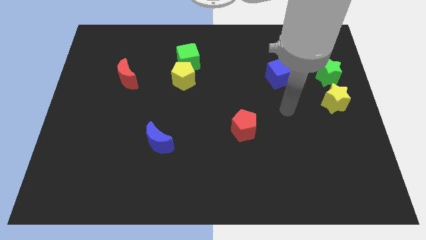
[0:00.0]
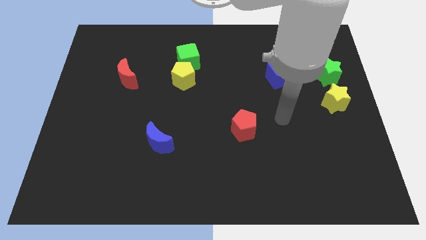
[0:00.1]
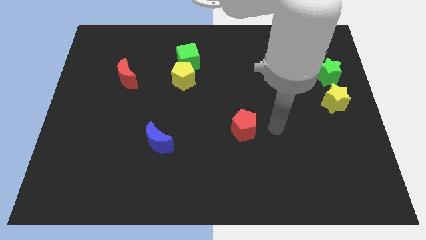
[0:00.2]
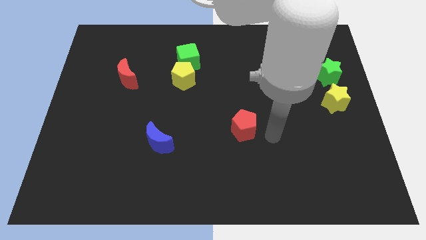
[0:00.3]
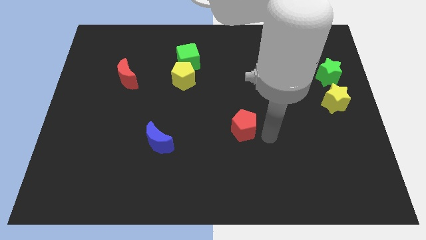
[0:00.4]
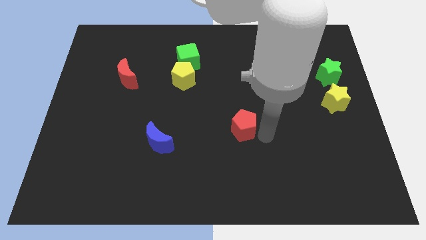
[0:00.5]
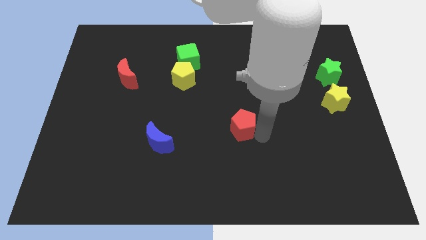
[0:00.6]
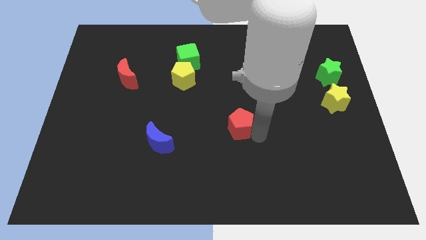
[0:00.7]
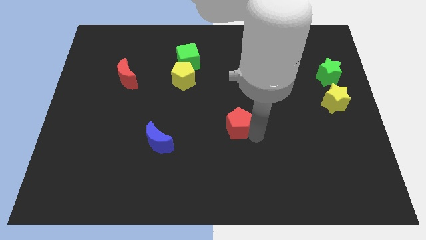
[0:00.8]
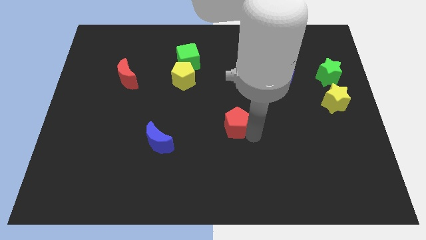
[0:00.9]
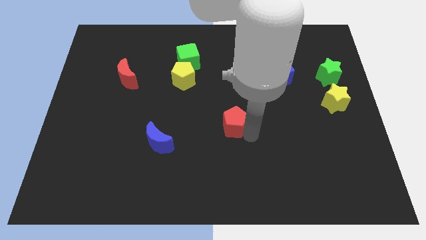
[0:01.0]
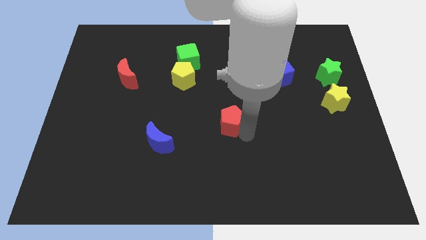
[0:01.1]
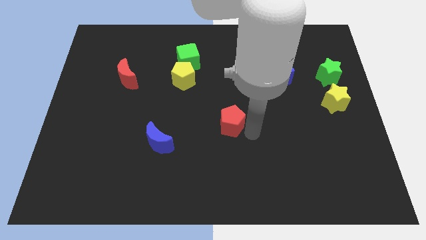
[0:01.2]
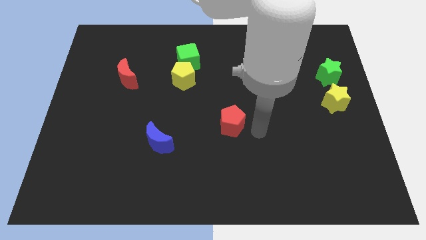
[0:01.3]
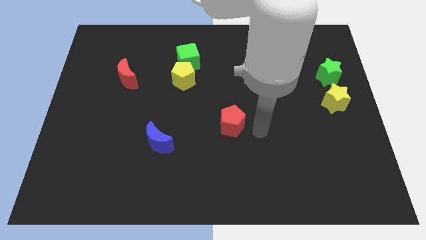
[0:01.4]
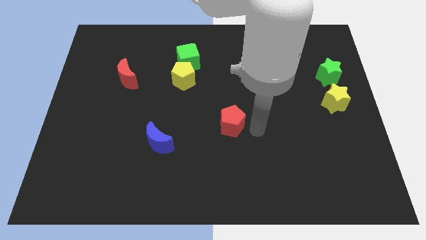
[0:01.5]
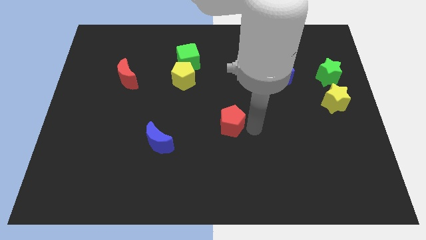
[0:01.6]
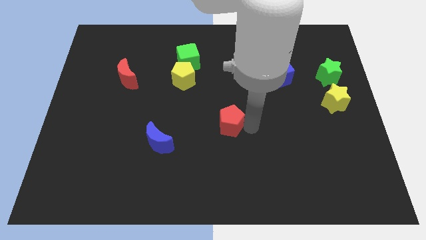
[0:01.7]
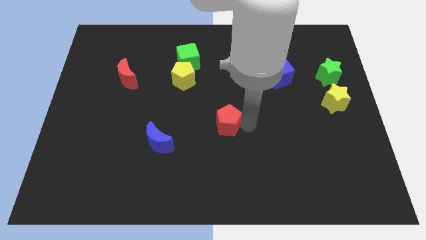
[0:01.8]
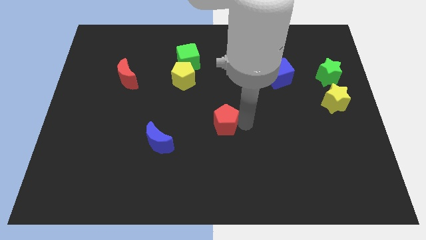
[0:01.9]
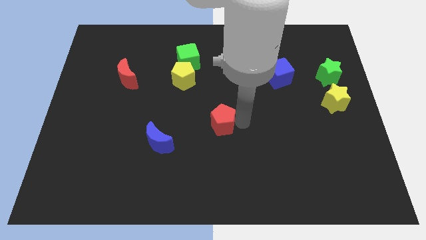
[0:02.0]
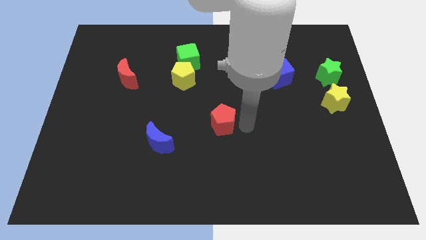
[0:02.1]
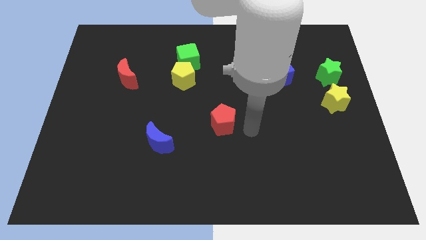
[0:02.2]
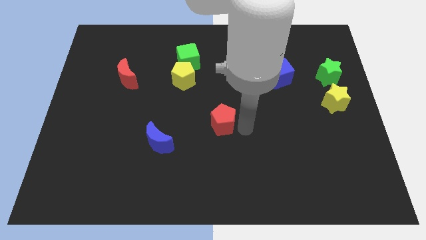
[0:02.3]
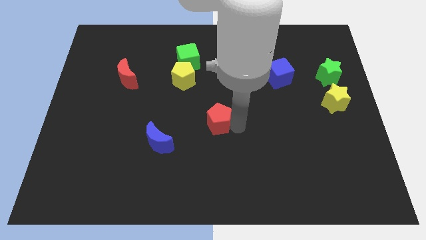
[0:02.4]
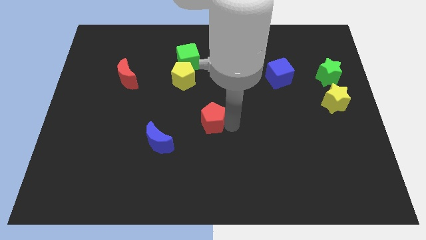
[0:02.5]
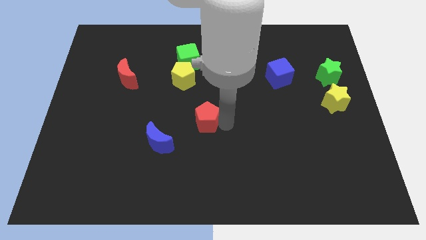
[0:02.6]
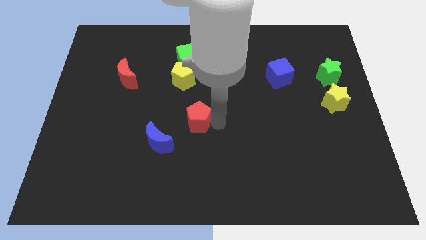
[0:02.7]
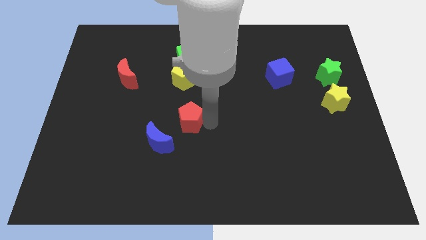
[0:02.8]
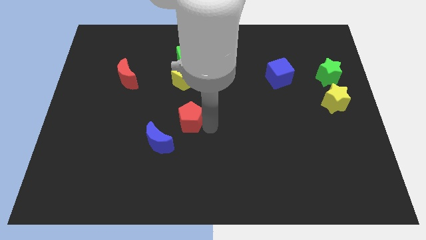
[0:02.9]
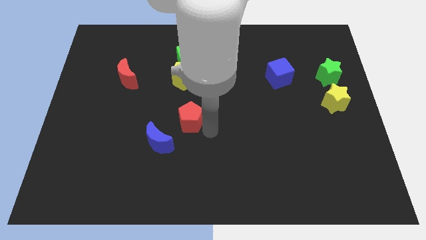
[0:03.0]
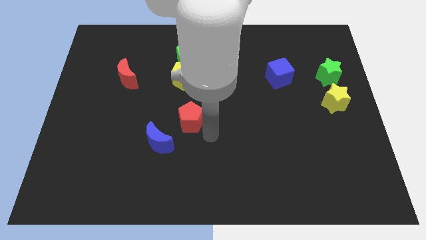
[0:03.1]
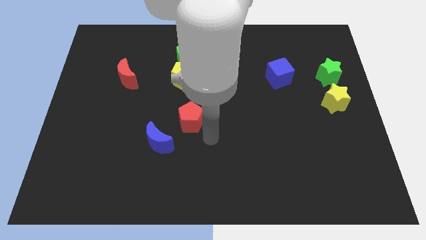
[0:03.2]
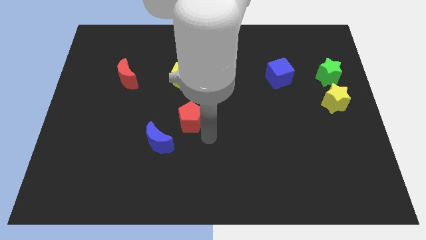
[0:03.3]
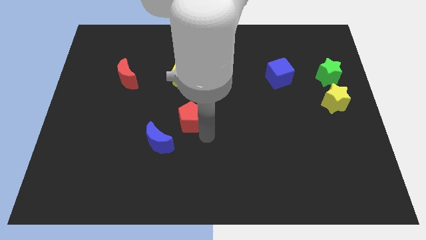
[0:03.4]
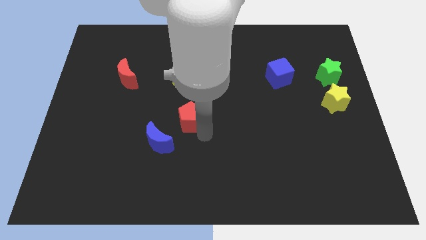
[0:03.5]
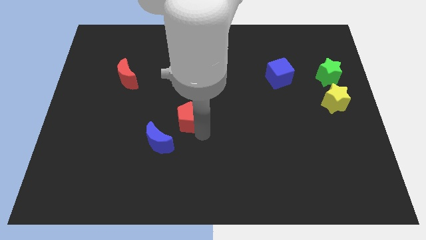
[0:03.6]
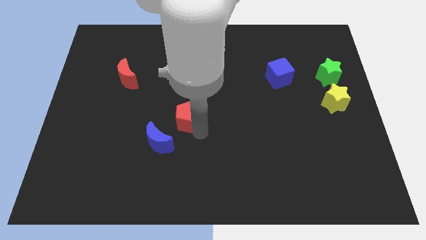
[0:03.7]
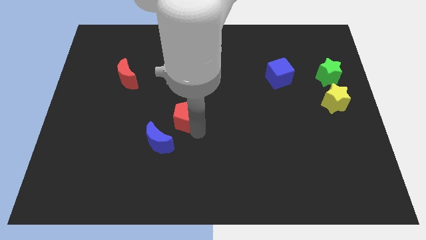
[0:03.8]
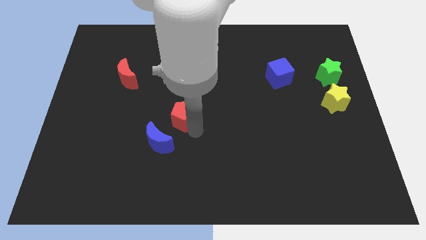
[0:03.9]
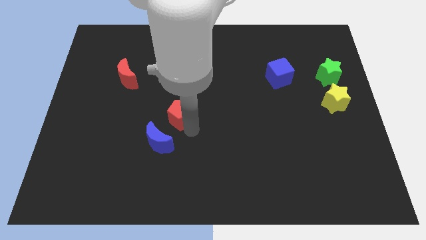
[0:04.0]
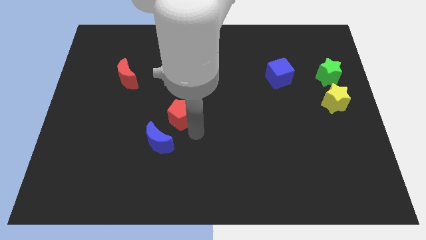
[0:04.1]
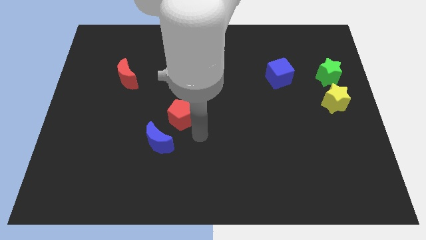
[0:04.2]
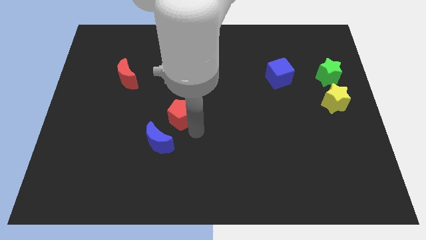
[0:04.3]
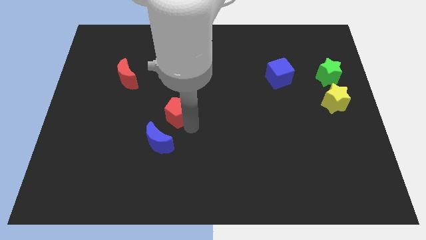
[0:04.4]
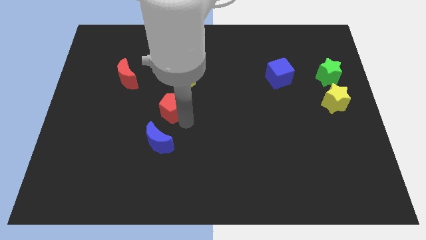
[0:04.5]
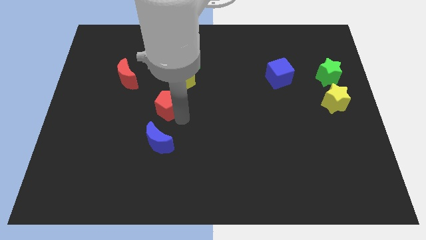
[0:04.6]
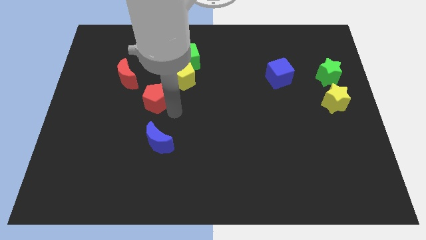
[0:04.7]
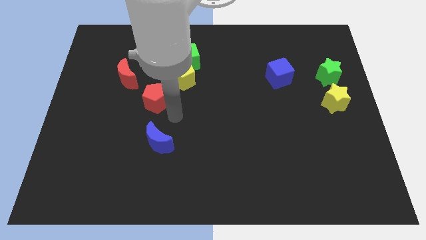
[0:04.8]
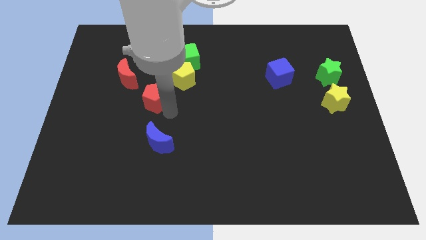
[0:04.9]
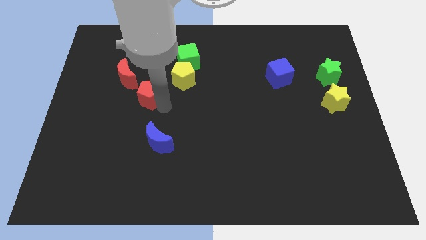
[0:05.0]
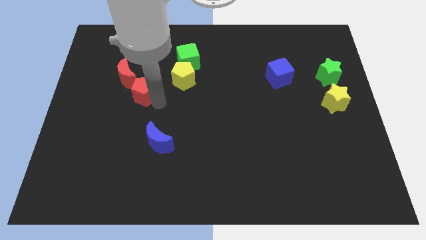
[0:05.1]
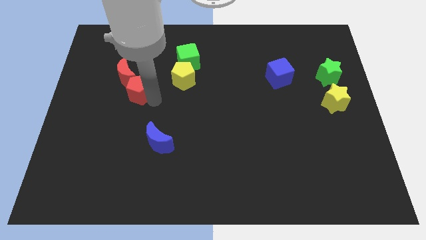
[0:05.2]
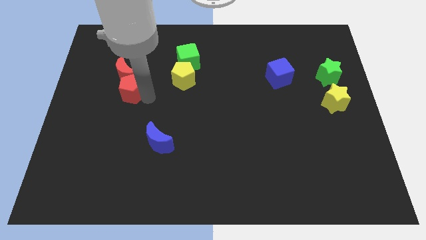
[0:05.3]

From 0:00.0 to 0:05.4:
slide the red pentagon towards the red moon

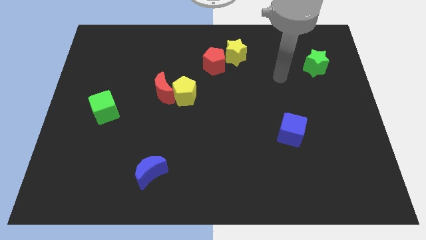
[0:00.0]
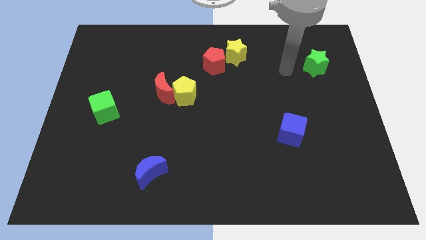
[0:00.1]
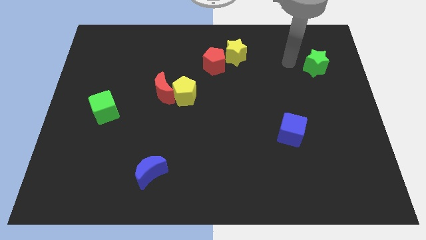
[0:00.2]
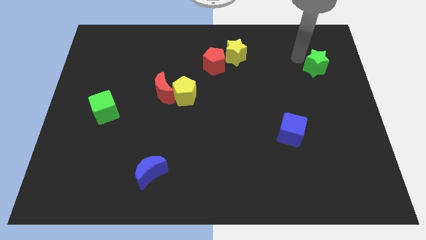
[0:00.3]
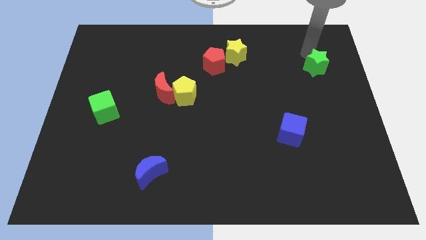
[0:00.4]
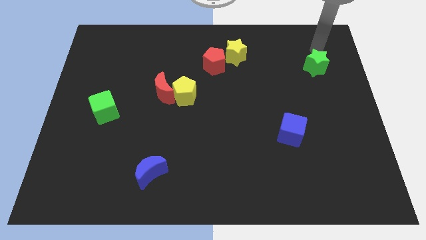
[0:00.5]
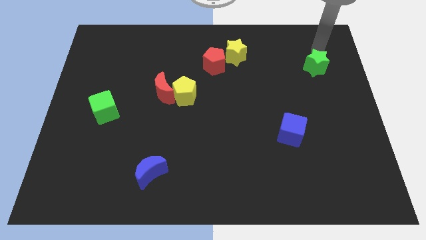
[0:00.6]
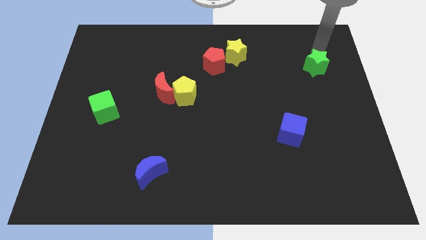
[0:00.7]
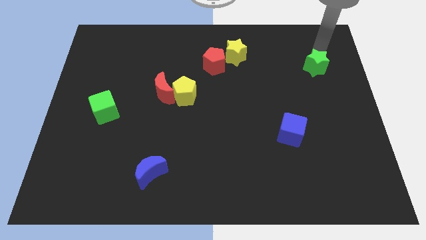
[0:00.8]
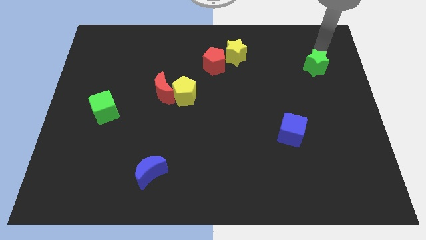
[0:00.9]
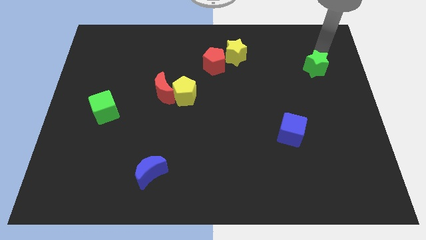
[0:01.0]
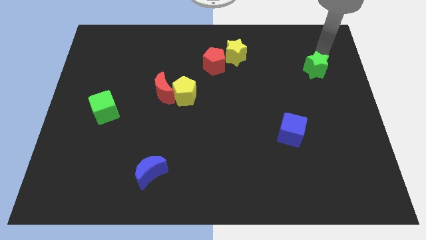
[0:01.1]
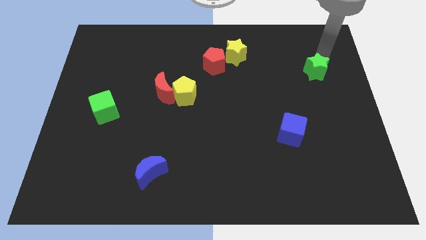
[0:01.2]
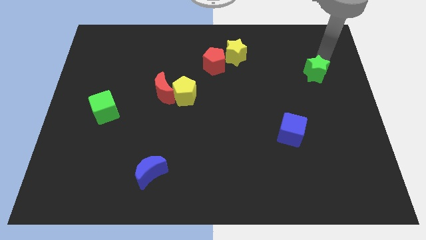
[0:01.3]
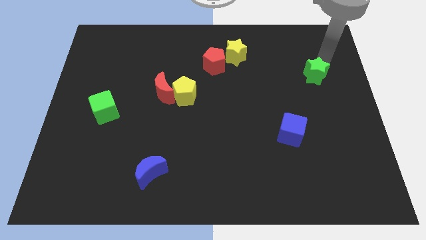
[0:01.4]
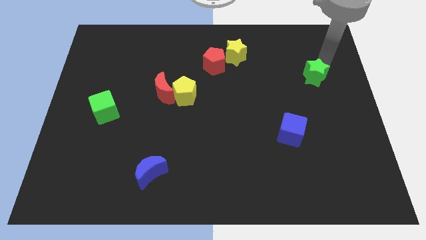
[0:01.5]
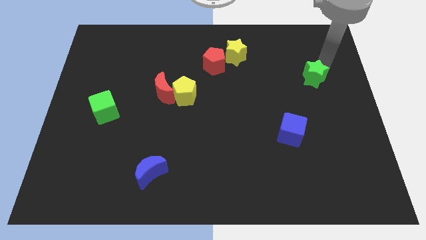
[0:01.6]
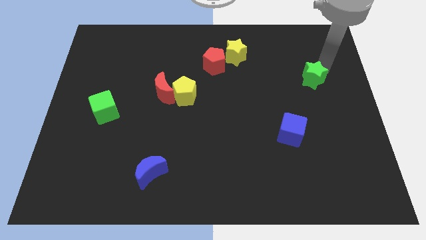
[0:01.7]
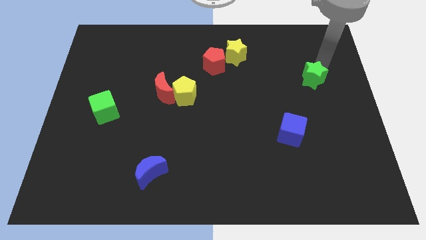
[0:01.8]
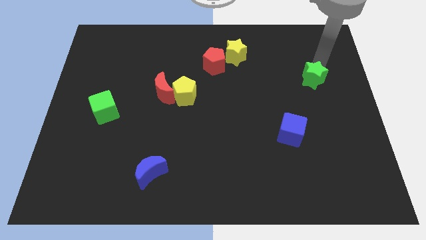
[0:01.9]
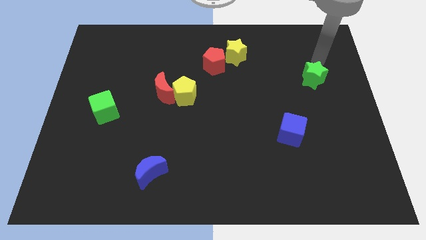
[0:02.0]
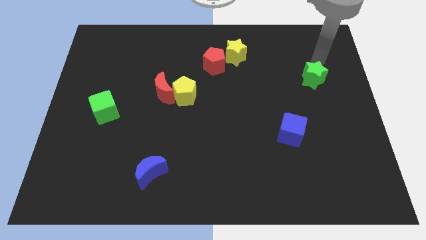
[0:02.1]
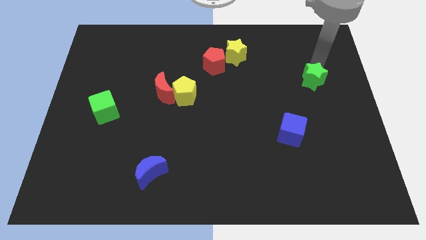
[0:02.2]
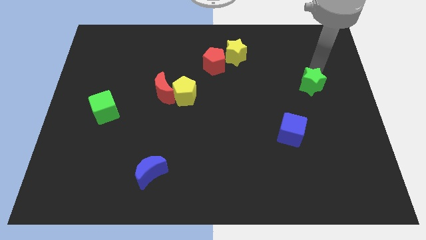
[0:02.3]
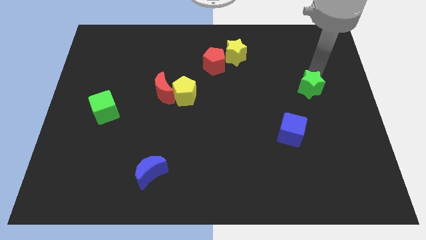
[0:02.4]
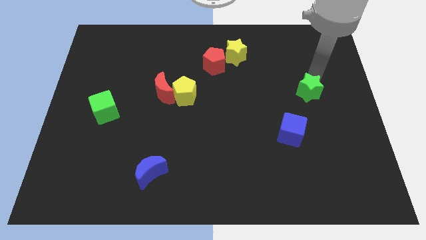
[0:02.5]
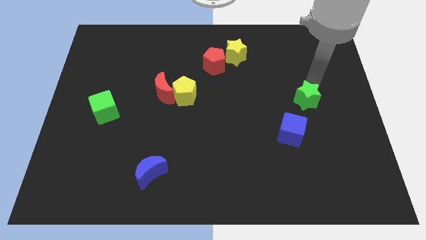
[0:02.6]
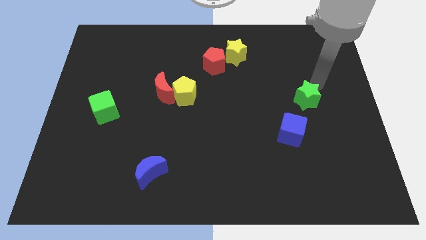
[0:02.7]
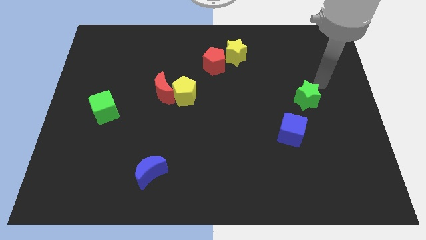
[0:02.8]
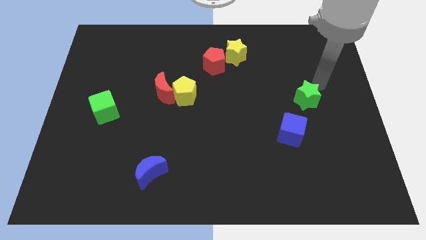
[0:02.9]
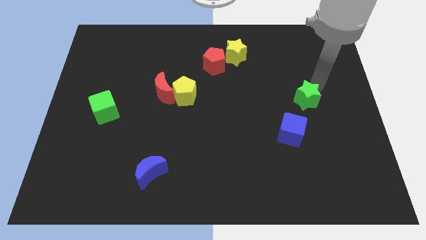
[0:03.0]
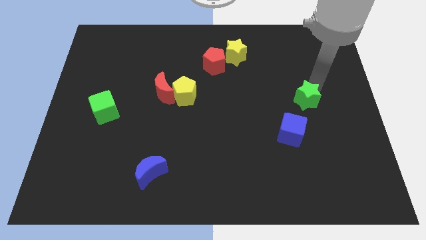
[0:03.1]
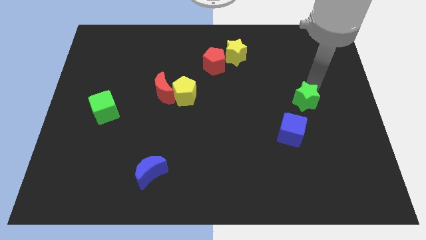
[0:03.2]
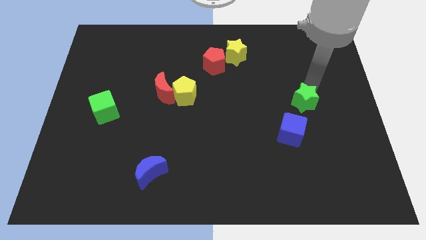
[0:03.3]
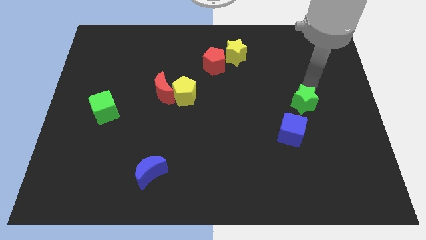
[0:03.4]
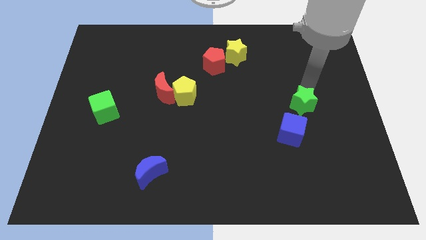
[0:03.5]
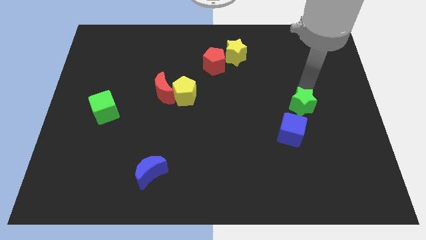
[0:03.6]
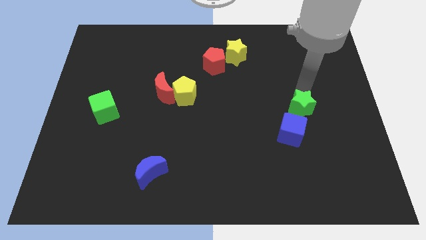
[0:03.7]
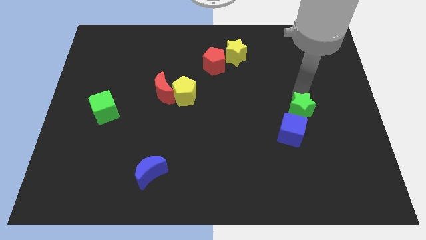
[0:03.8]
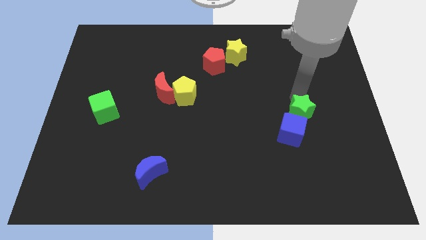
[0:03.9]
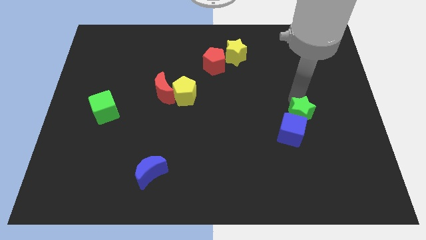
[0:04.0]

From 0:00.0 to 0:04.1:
move the green star towards the blue cube
